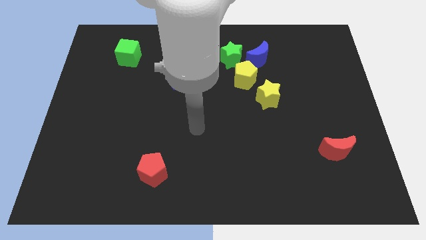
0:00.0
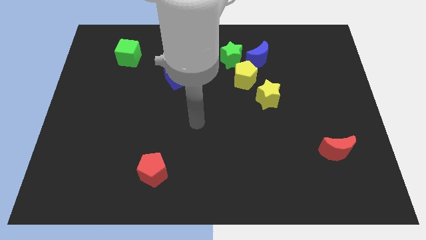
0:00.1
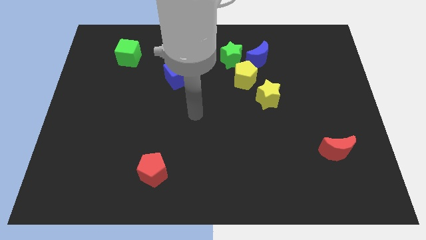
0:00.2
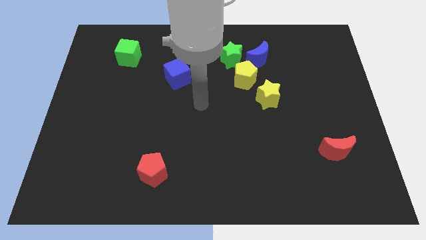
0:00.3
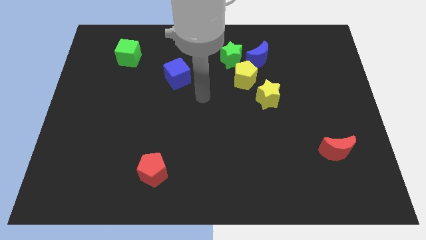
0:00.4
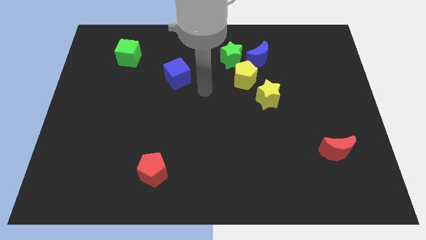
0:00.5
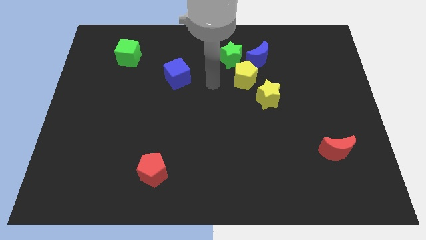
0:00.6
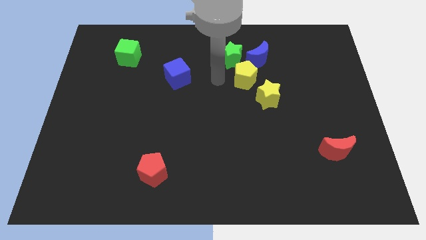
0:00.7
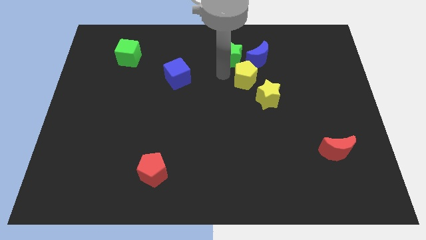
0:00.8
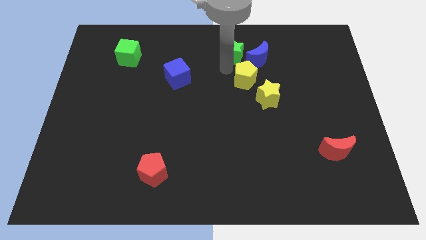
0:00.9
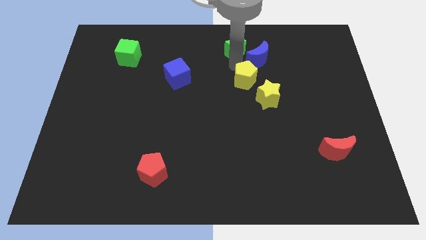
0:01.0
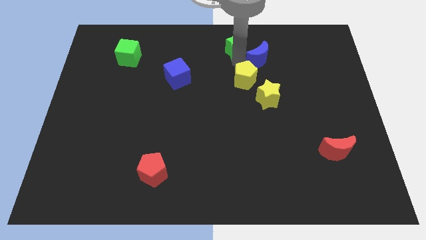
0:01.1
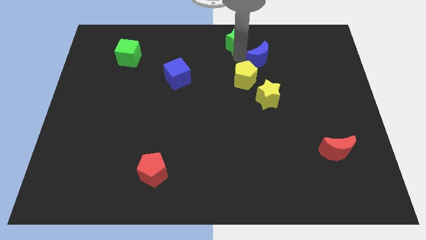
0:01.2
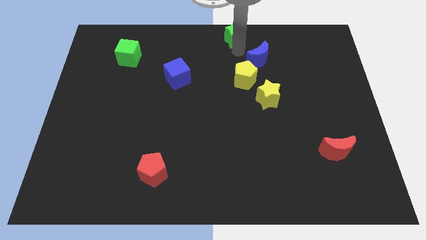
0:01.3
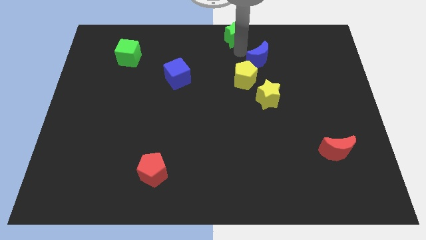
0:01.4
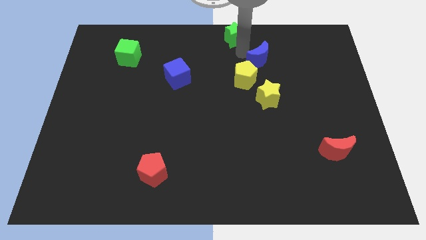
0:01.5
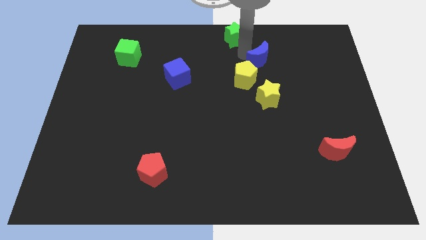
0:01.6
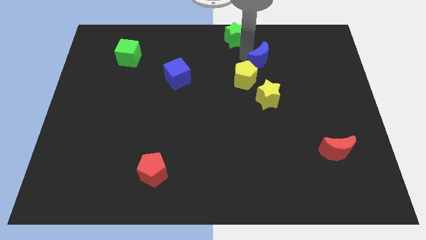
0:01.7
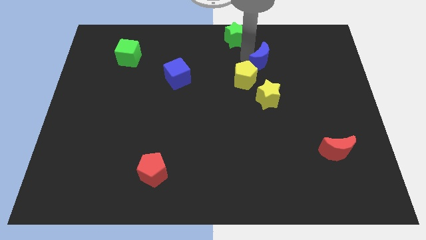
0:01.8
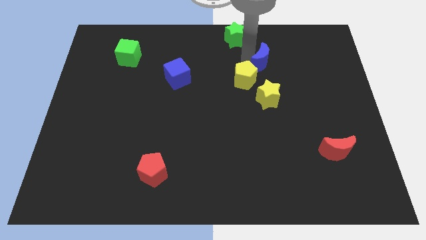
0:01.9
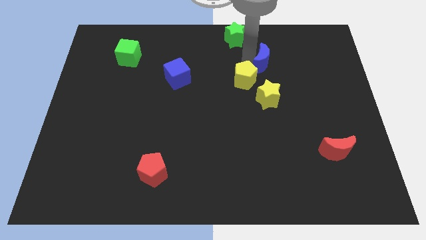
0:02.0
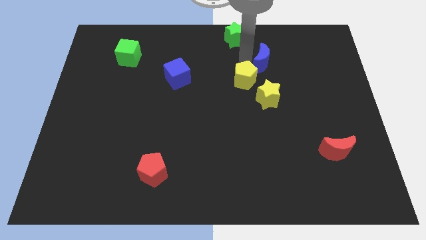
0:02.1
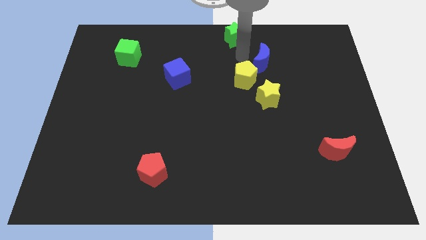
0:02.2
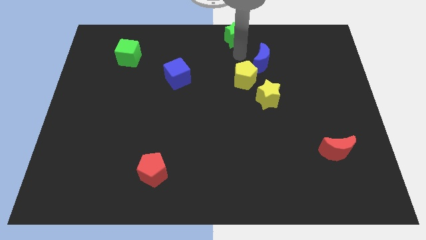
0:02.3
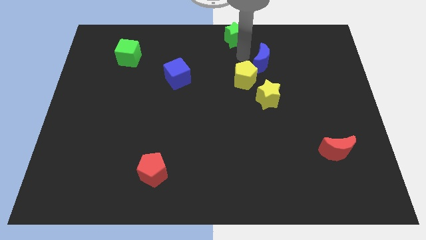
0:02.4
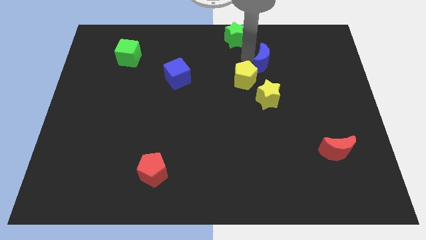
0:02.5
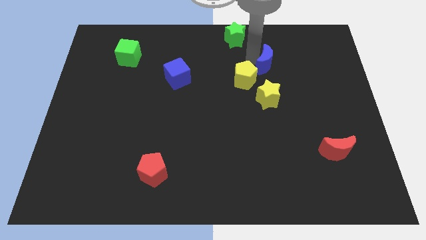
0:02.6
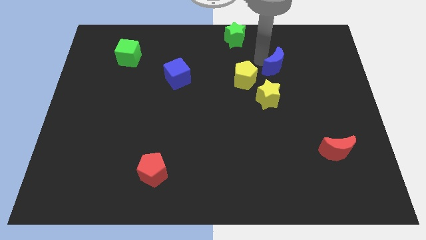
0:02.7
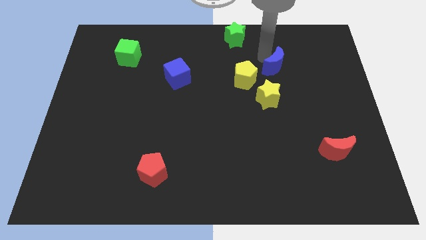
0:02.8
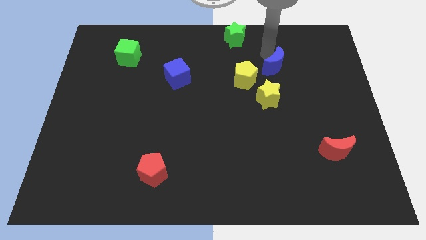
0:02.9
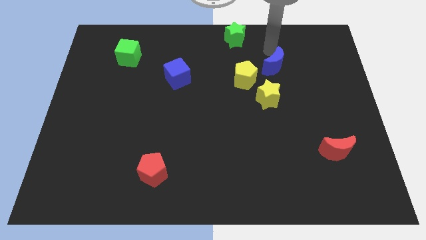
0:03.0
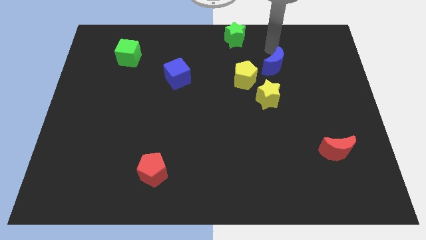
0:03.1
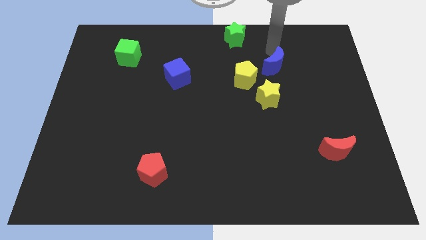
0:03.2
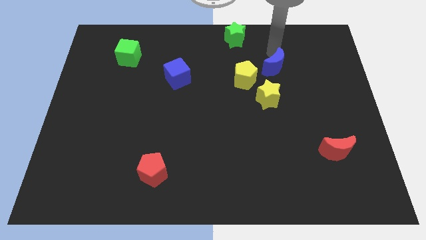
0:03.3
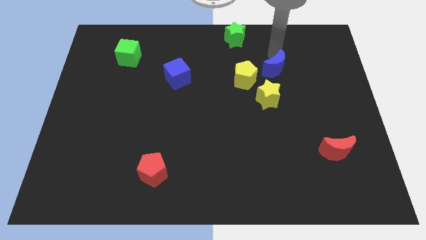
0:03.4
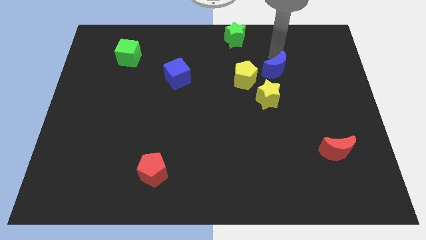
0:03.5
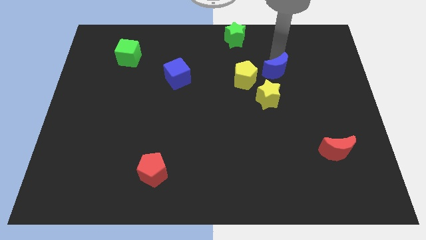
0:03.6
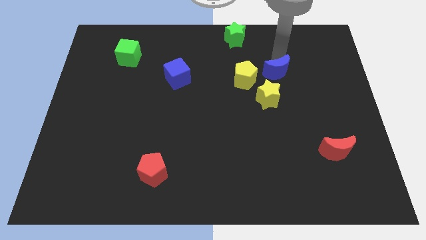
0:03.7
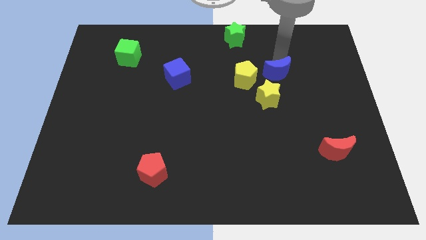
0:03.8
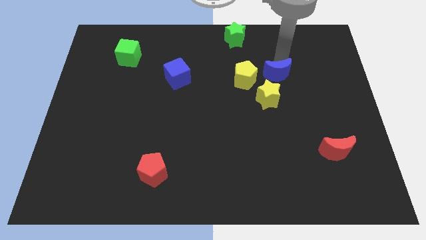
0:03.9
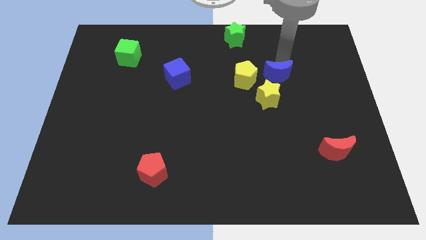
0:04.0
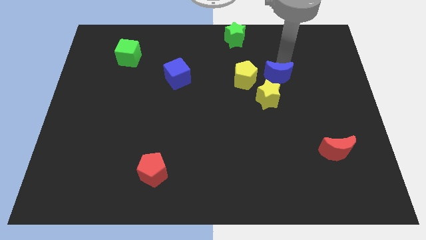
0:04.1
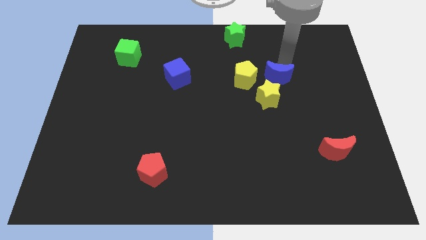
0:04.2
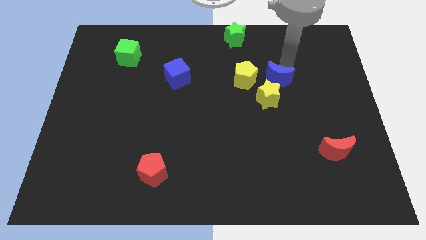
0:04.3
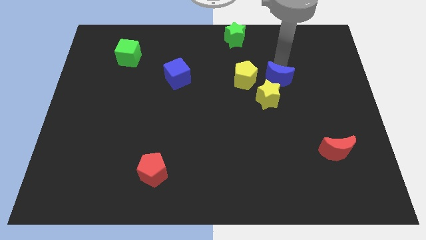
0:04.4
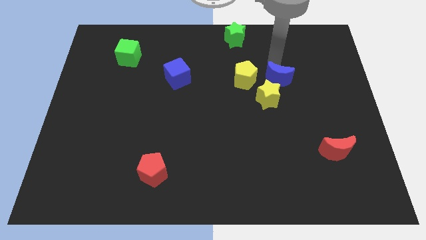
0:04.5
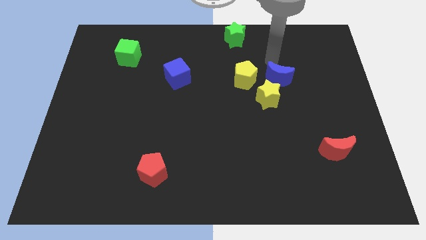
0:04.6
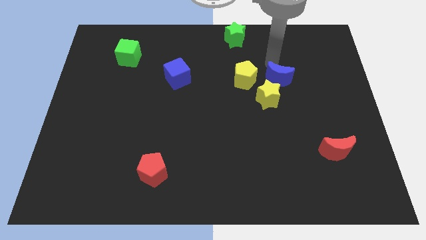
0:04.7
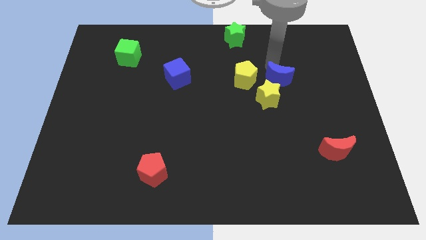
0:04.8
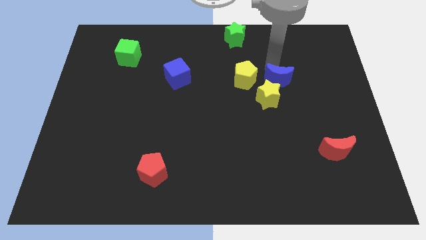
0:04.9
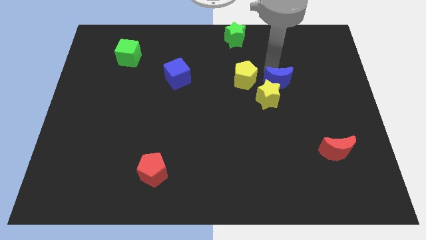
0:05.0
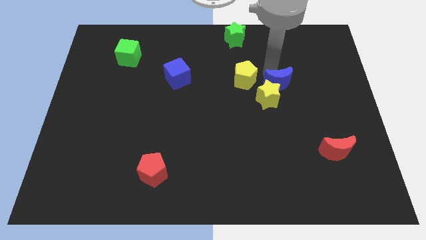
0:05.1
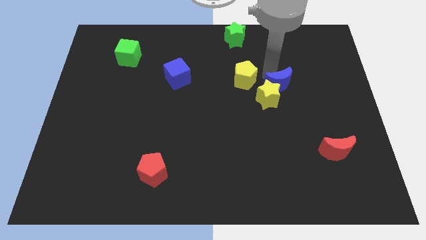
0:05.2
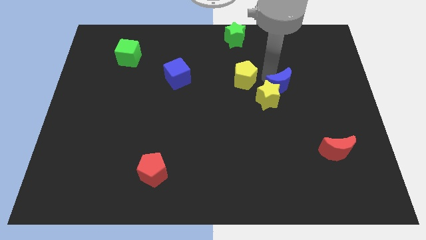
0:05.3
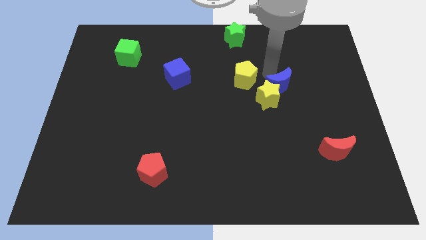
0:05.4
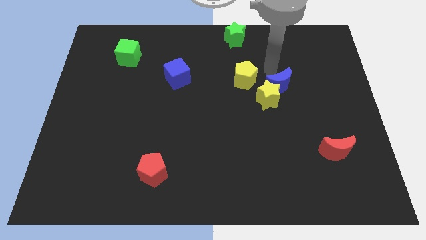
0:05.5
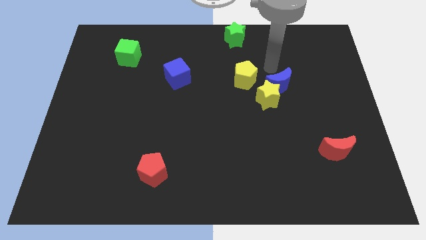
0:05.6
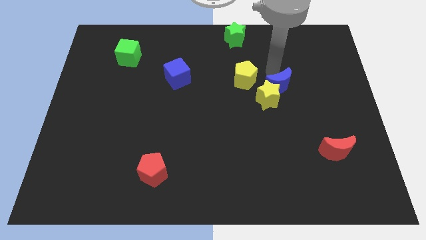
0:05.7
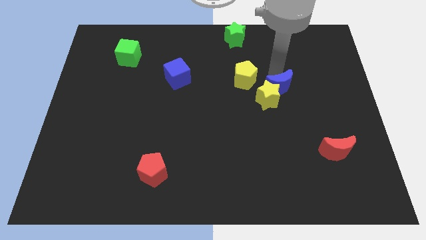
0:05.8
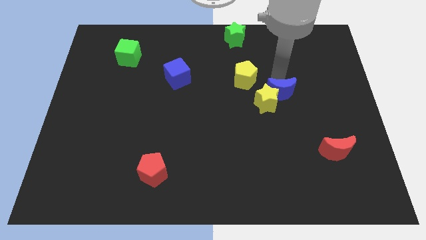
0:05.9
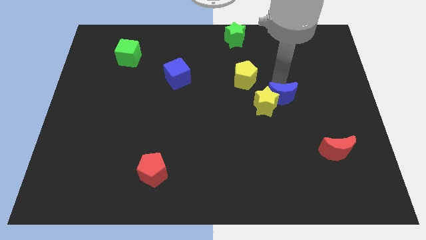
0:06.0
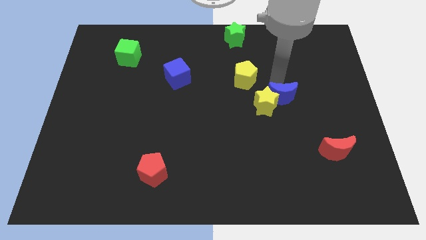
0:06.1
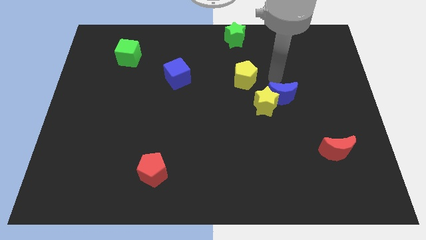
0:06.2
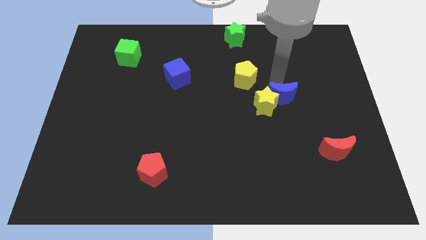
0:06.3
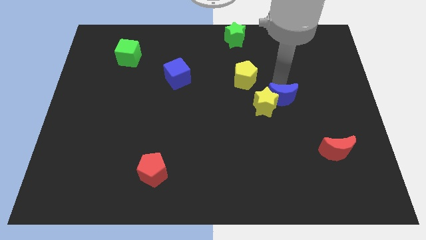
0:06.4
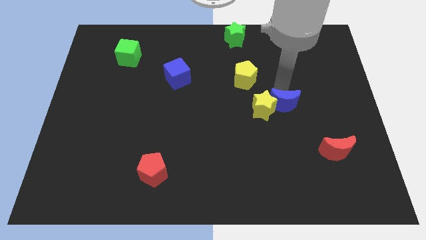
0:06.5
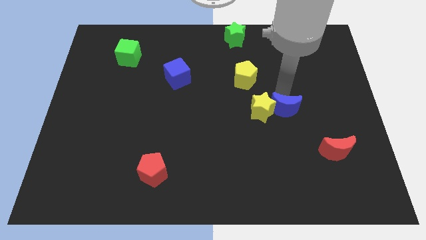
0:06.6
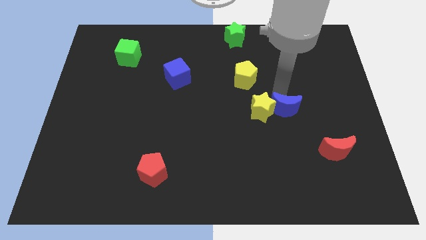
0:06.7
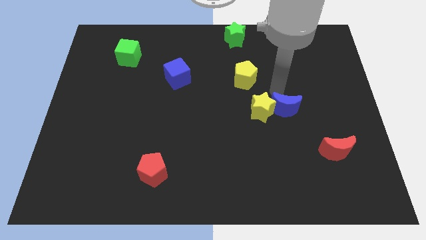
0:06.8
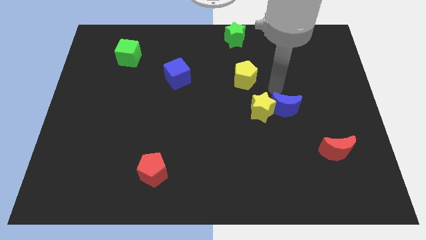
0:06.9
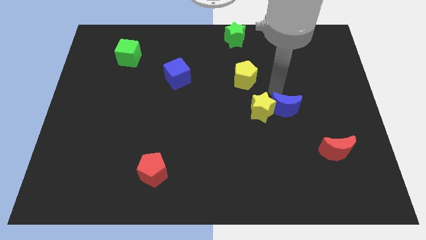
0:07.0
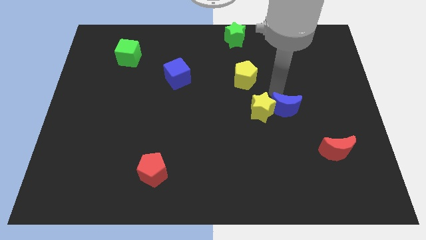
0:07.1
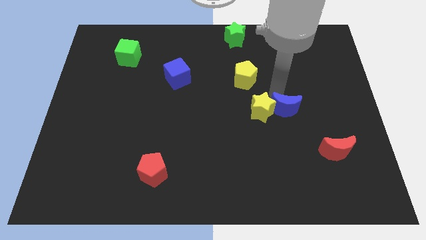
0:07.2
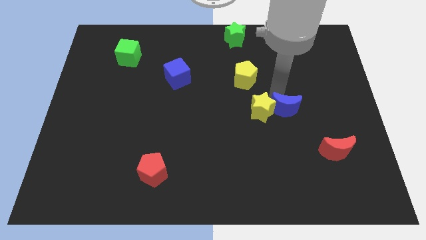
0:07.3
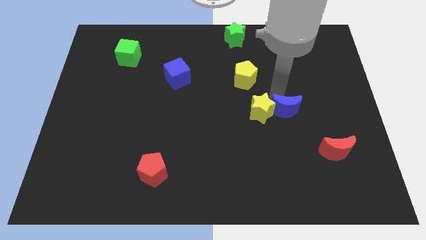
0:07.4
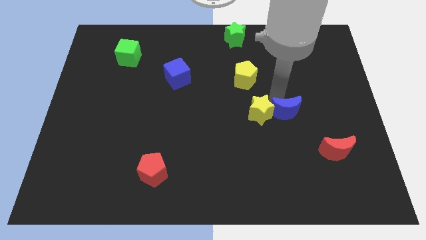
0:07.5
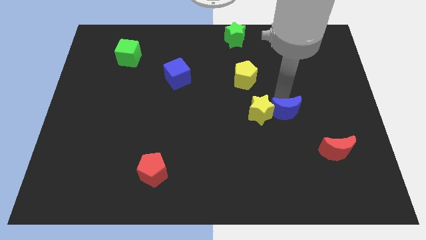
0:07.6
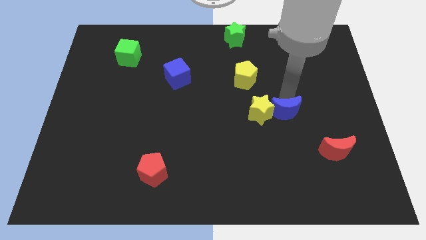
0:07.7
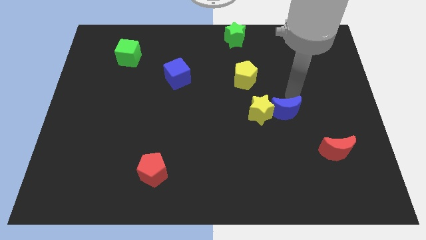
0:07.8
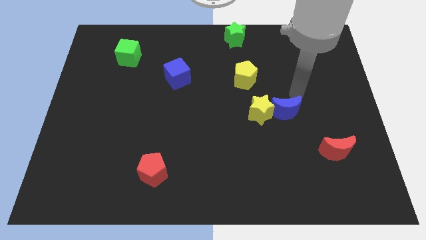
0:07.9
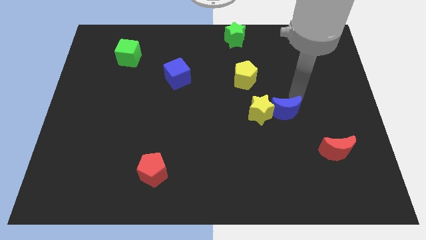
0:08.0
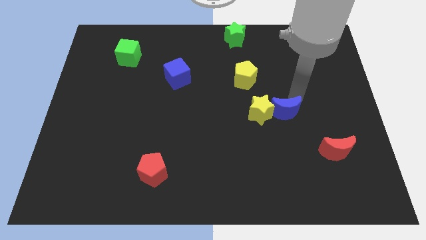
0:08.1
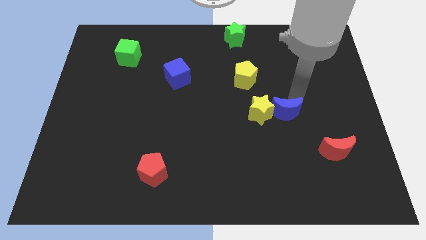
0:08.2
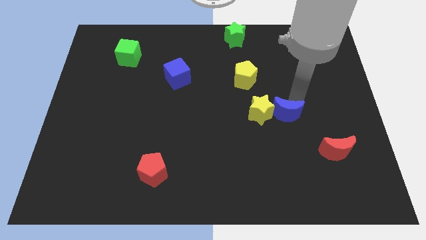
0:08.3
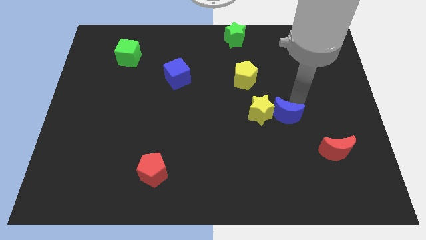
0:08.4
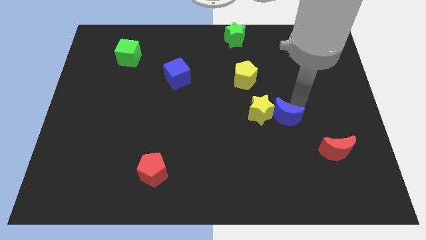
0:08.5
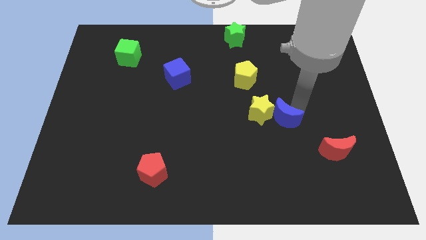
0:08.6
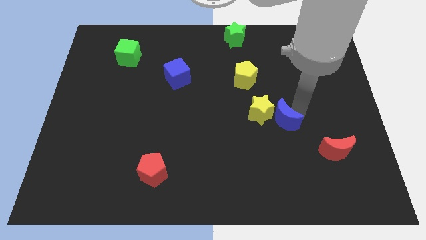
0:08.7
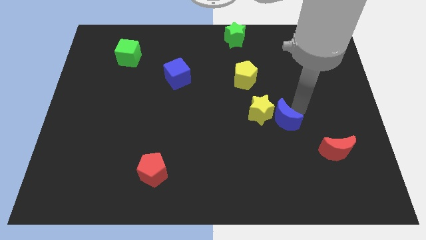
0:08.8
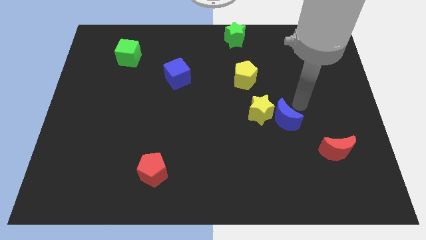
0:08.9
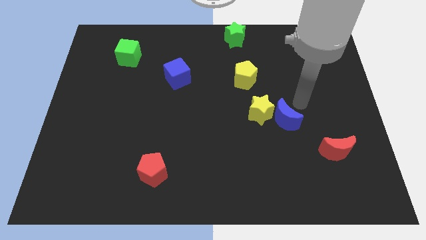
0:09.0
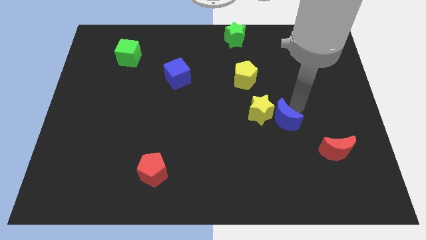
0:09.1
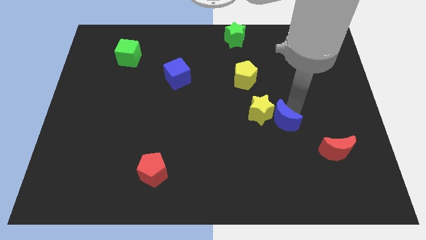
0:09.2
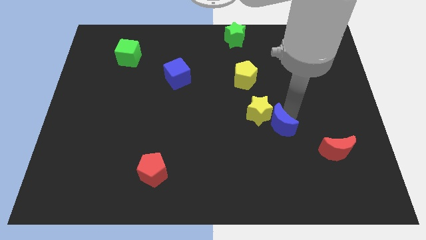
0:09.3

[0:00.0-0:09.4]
push the blue moon down
